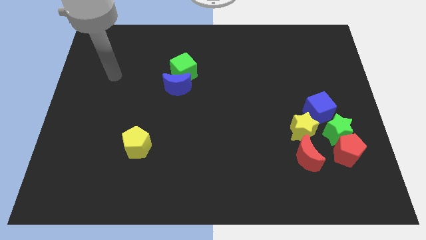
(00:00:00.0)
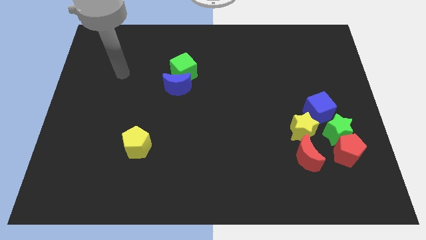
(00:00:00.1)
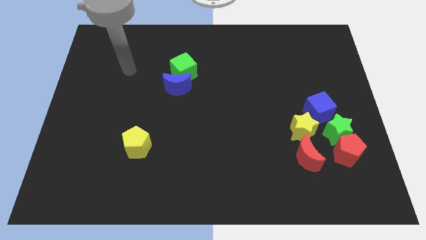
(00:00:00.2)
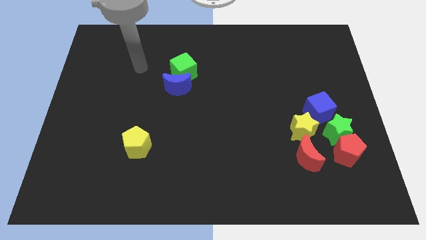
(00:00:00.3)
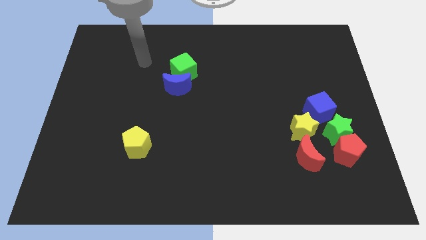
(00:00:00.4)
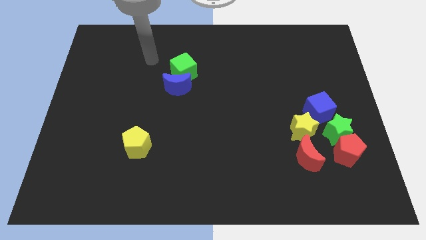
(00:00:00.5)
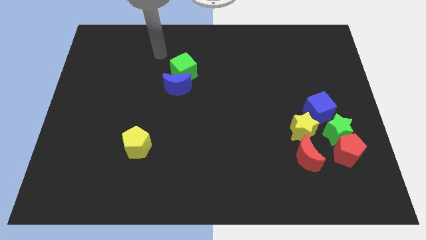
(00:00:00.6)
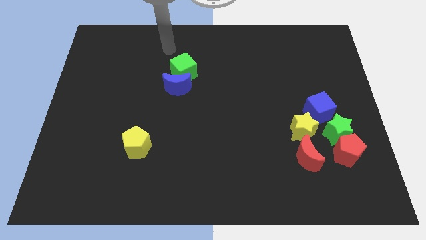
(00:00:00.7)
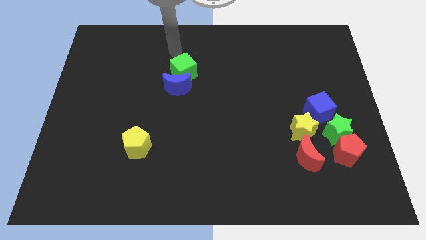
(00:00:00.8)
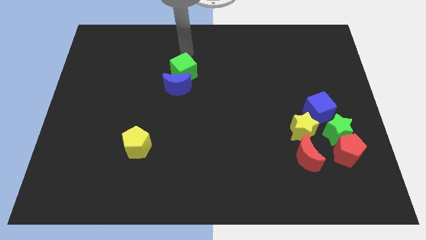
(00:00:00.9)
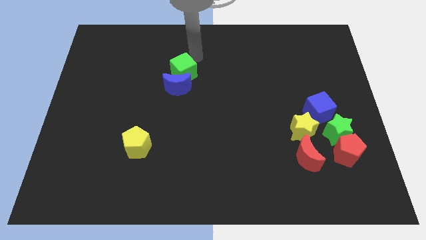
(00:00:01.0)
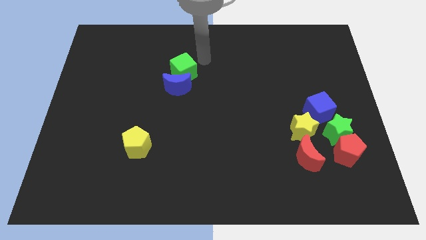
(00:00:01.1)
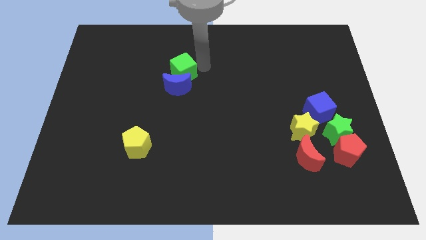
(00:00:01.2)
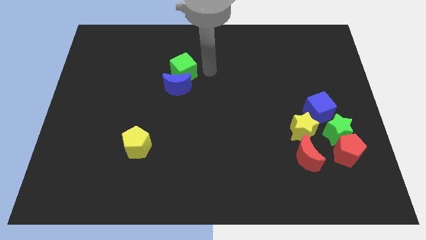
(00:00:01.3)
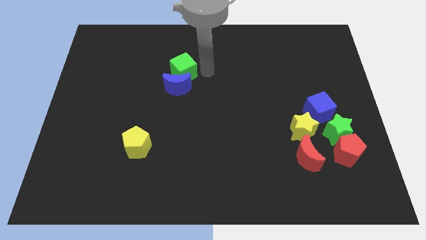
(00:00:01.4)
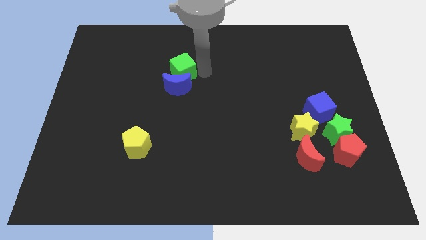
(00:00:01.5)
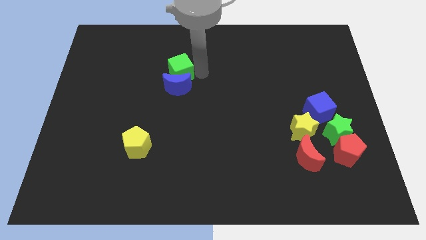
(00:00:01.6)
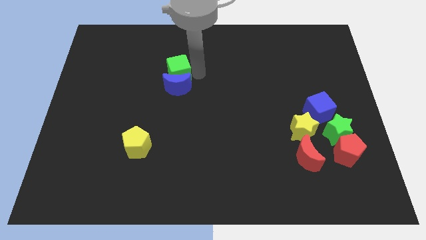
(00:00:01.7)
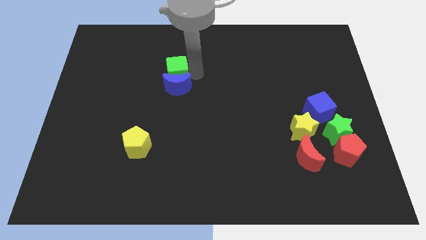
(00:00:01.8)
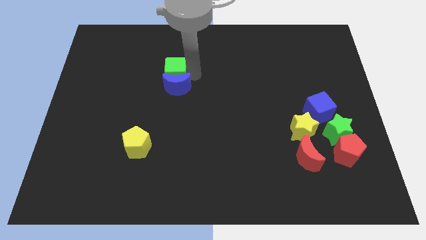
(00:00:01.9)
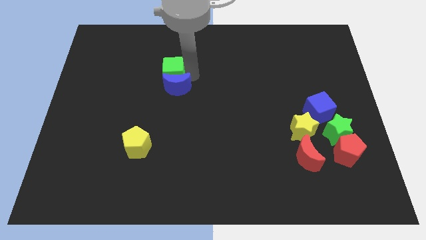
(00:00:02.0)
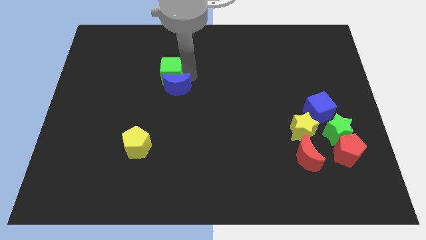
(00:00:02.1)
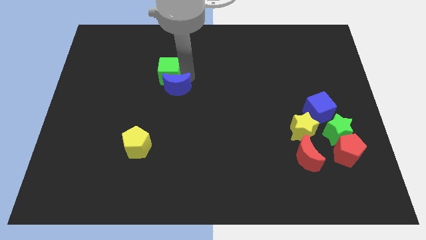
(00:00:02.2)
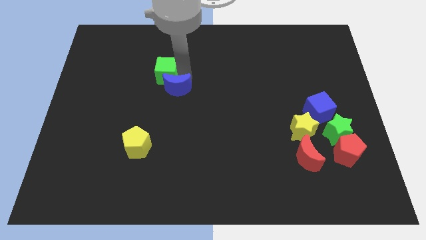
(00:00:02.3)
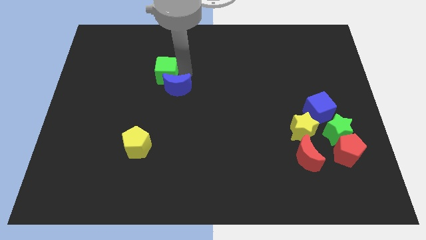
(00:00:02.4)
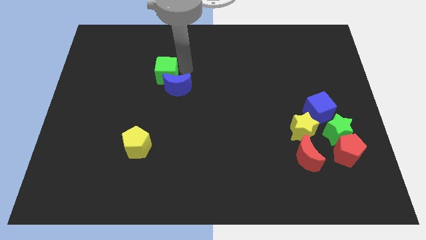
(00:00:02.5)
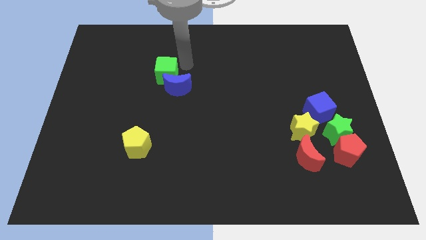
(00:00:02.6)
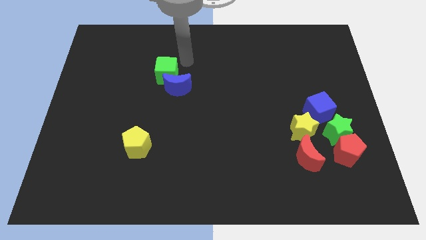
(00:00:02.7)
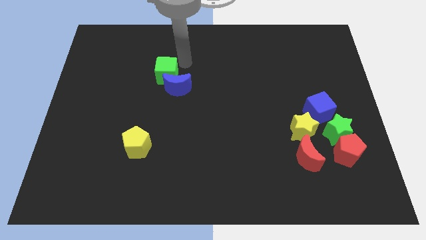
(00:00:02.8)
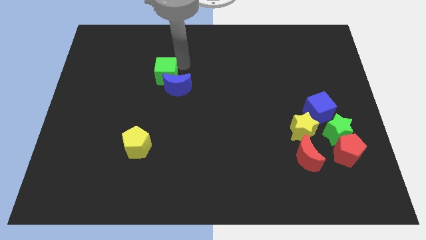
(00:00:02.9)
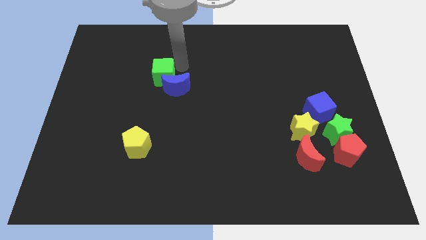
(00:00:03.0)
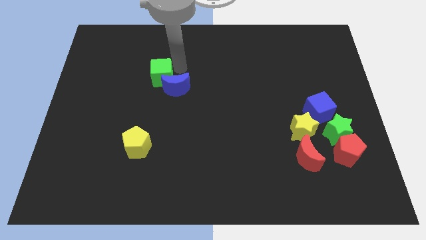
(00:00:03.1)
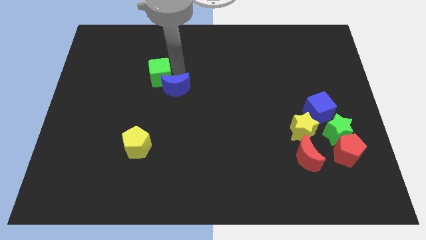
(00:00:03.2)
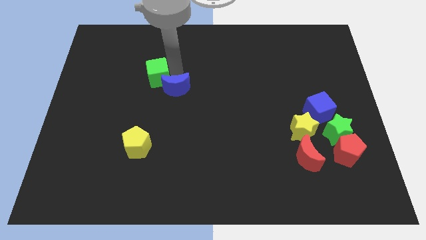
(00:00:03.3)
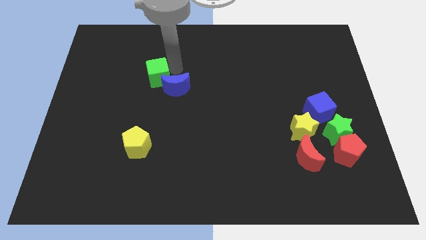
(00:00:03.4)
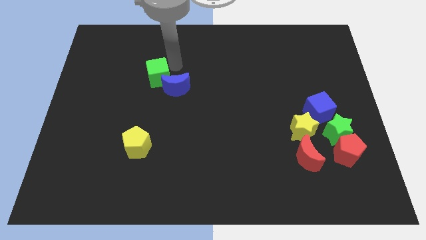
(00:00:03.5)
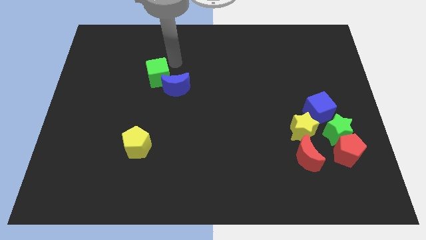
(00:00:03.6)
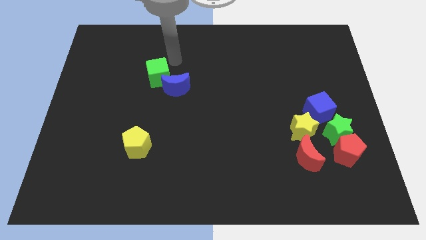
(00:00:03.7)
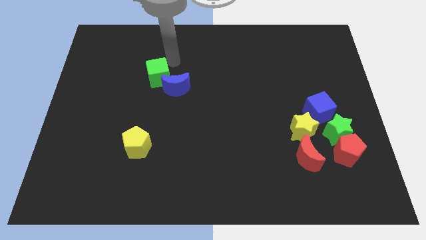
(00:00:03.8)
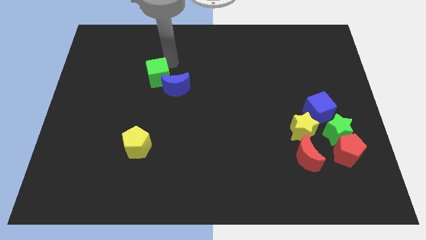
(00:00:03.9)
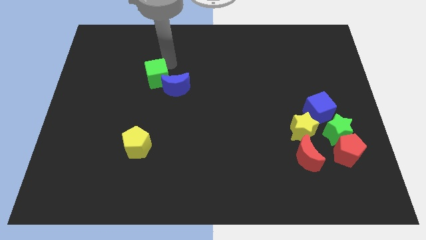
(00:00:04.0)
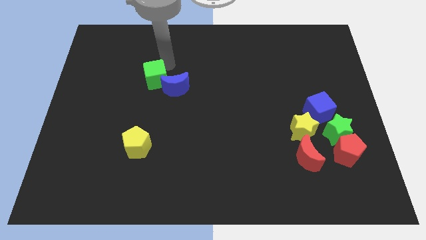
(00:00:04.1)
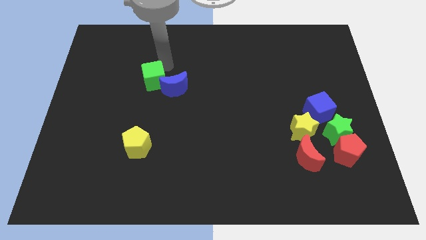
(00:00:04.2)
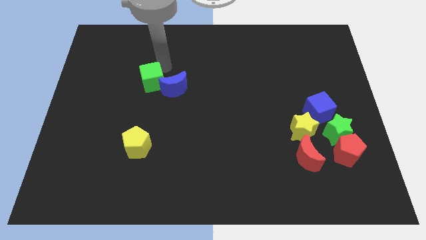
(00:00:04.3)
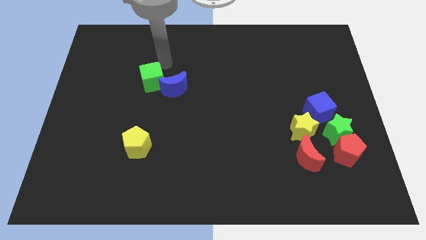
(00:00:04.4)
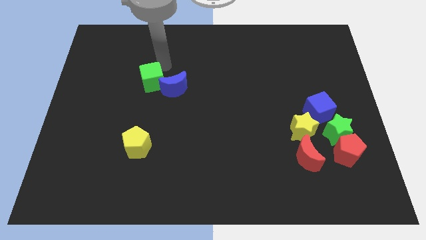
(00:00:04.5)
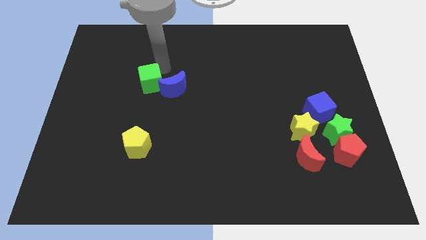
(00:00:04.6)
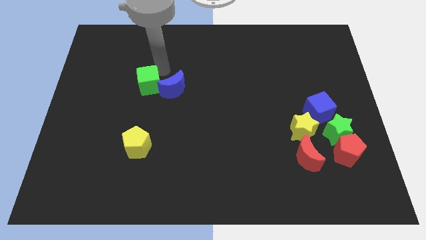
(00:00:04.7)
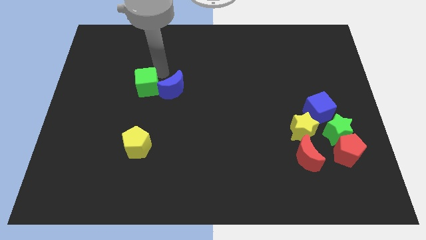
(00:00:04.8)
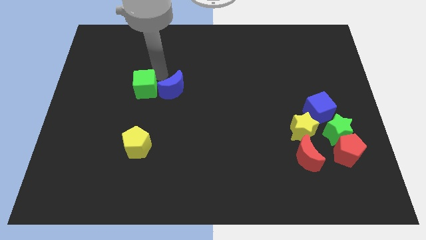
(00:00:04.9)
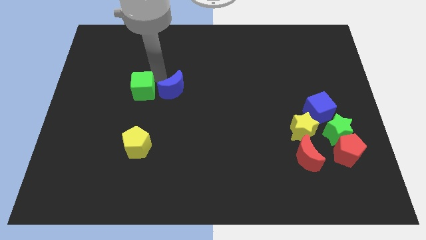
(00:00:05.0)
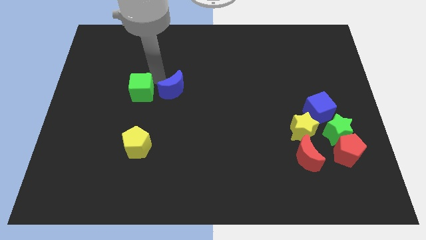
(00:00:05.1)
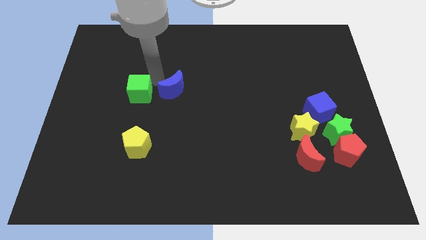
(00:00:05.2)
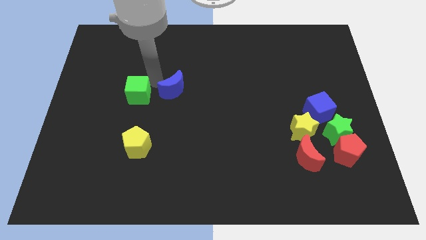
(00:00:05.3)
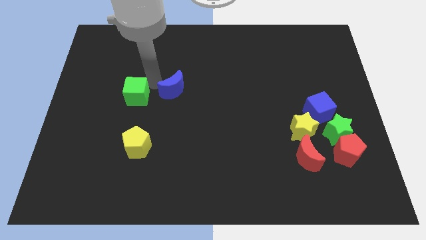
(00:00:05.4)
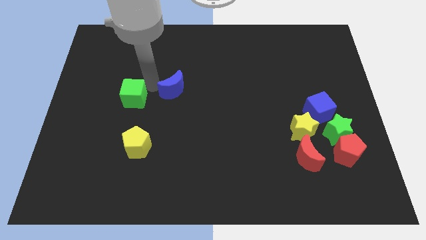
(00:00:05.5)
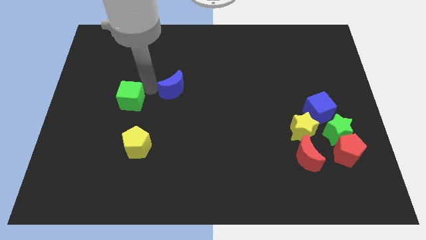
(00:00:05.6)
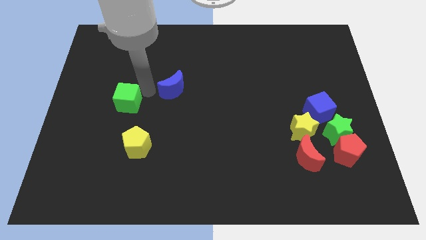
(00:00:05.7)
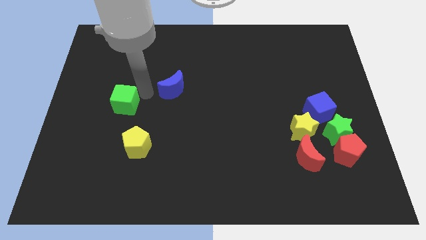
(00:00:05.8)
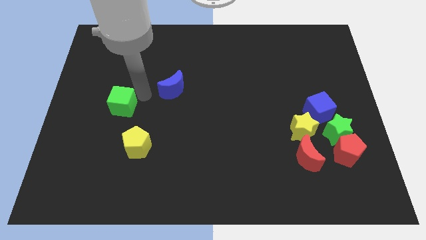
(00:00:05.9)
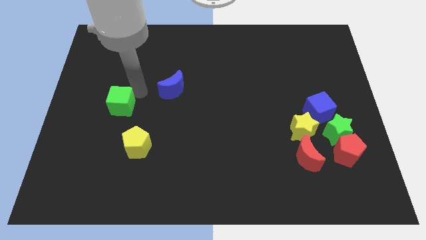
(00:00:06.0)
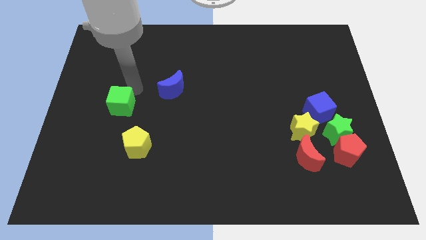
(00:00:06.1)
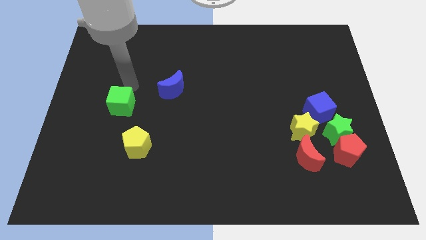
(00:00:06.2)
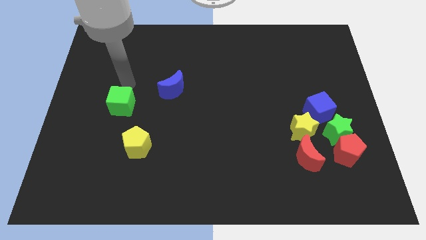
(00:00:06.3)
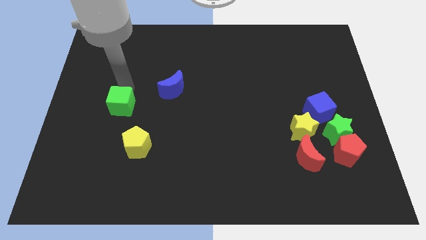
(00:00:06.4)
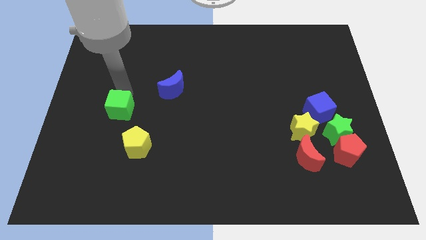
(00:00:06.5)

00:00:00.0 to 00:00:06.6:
put the green cube diagonally up and to the left of the yellow pentagon
